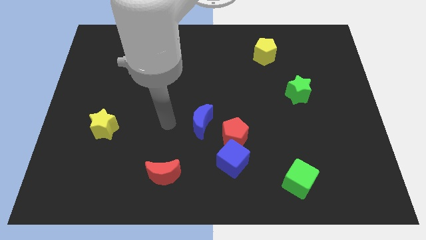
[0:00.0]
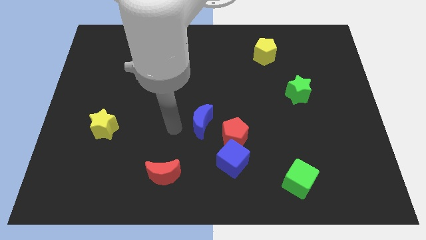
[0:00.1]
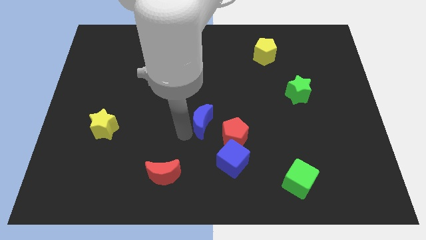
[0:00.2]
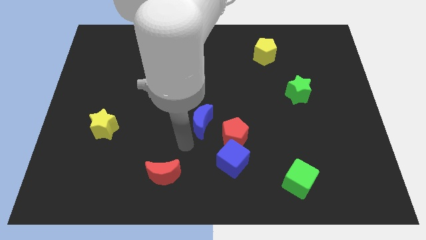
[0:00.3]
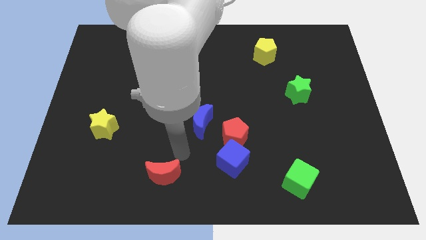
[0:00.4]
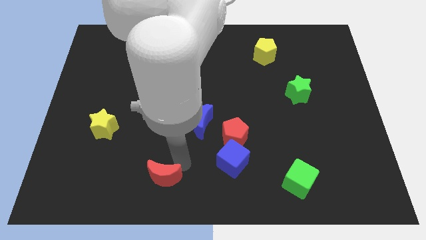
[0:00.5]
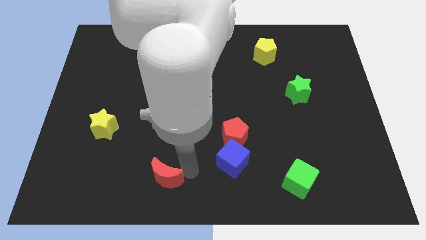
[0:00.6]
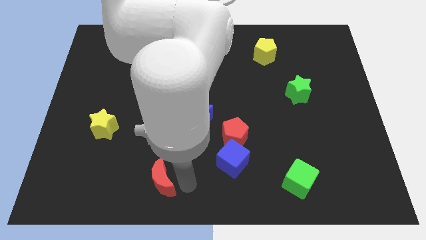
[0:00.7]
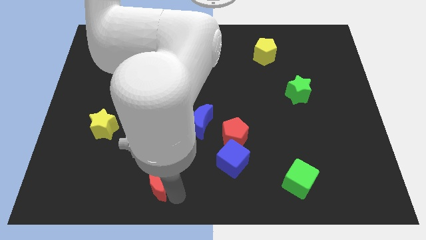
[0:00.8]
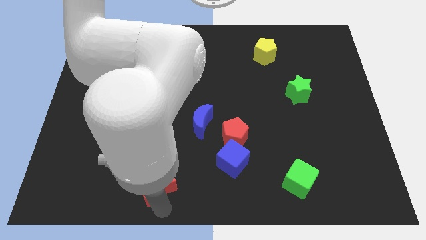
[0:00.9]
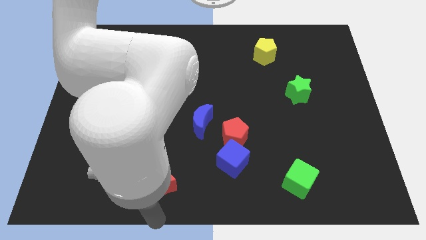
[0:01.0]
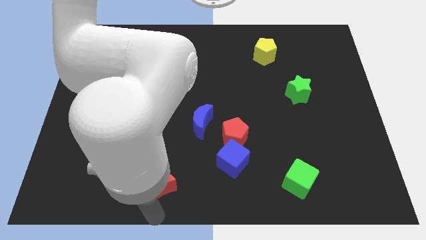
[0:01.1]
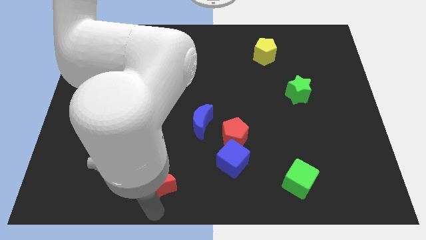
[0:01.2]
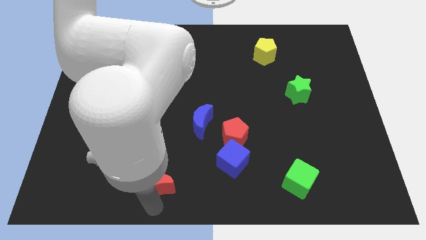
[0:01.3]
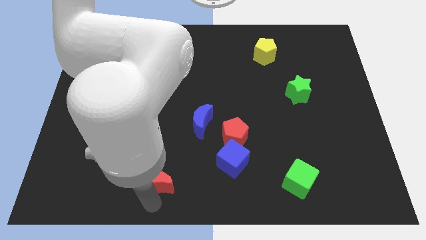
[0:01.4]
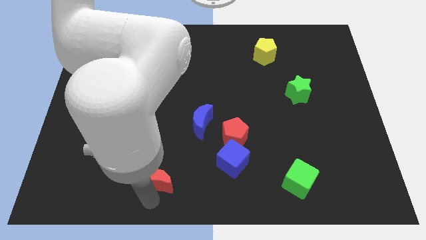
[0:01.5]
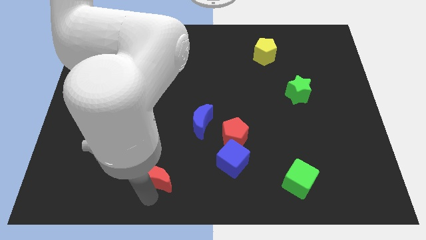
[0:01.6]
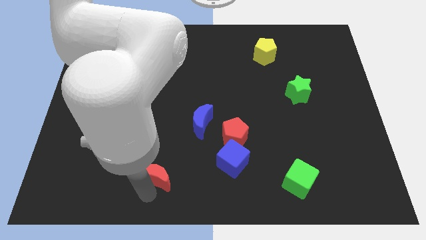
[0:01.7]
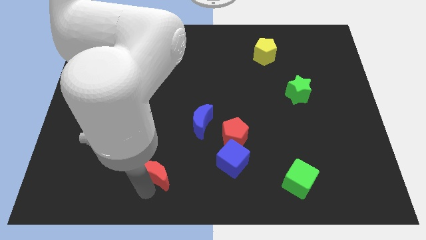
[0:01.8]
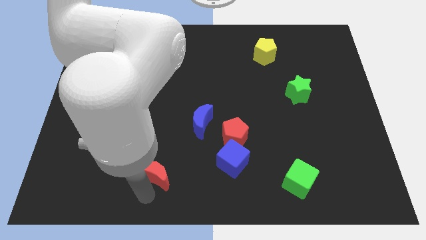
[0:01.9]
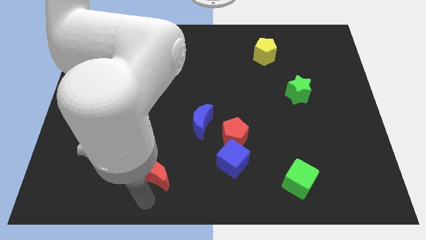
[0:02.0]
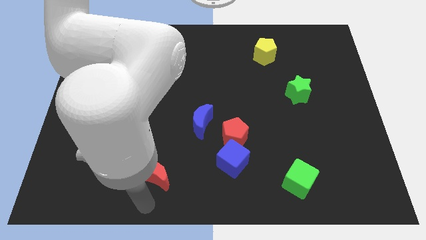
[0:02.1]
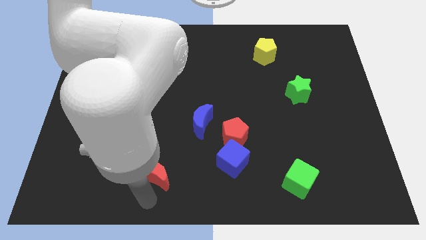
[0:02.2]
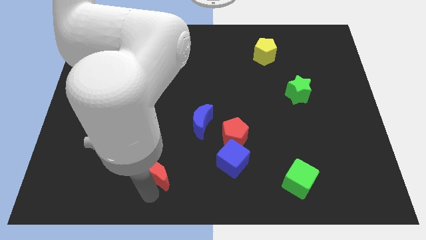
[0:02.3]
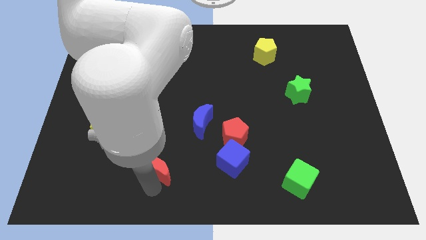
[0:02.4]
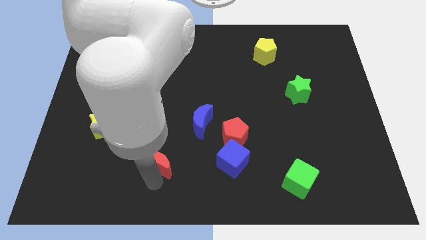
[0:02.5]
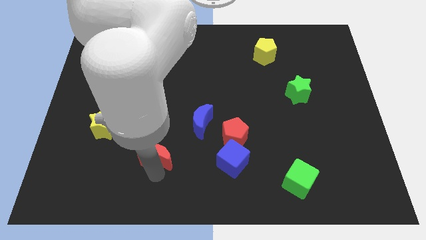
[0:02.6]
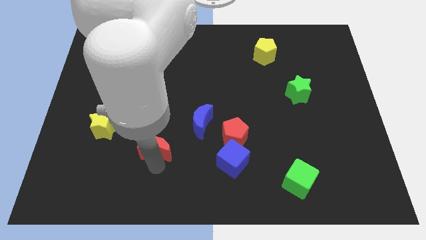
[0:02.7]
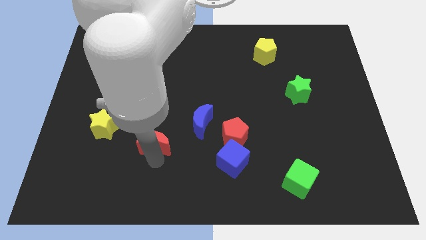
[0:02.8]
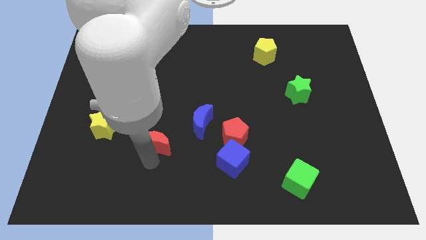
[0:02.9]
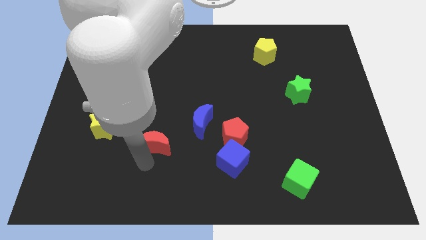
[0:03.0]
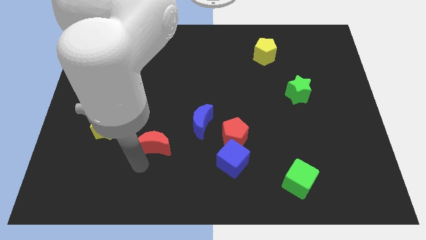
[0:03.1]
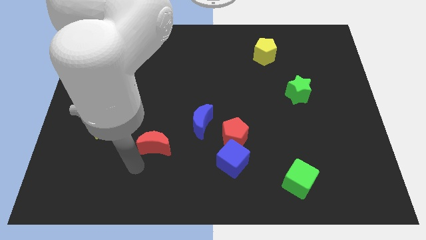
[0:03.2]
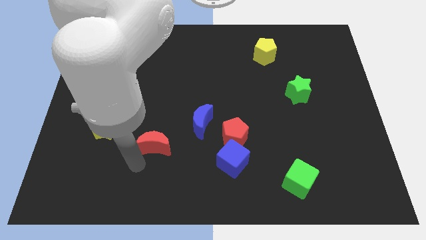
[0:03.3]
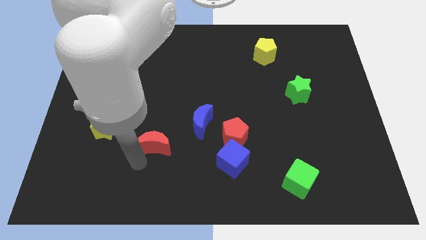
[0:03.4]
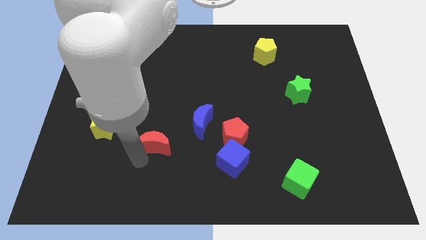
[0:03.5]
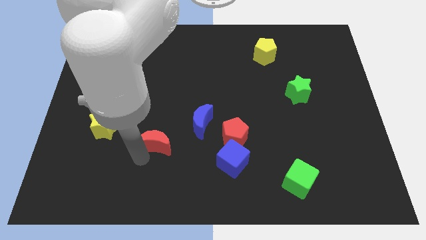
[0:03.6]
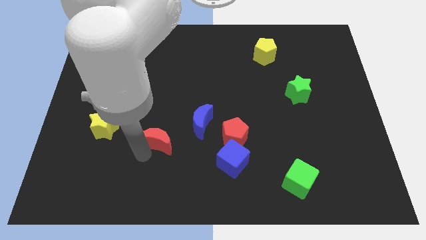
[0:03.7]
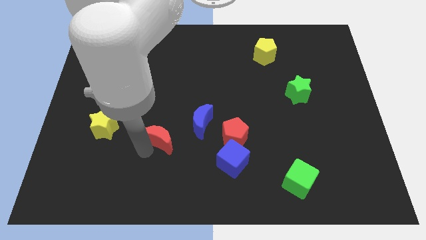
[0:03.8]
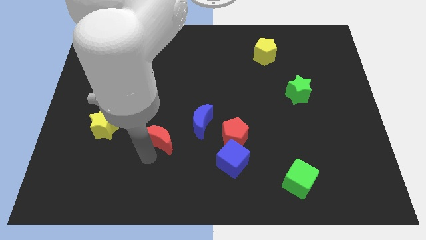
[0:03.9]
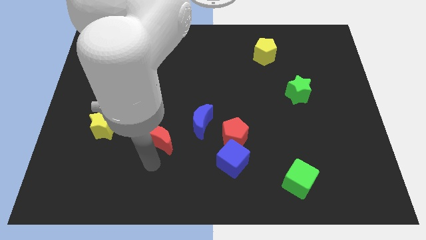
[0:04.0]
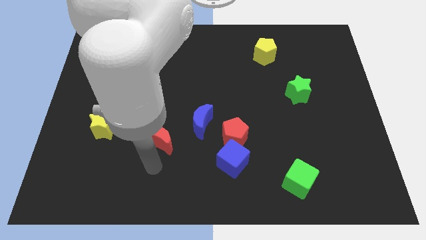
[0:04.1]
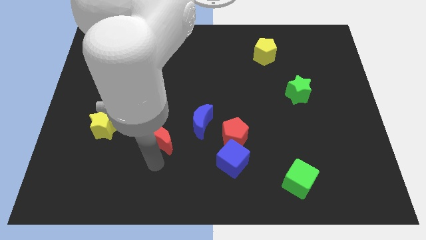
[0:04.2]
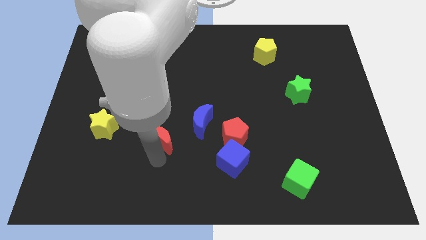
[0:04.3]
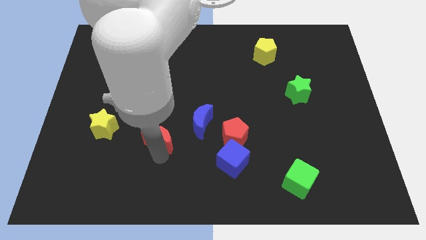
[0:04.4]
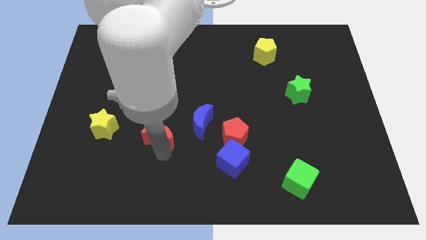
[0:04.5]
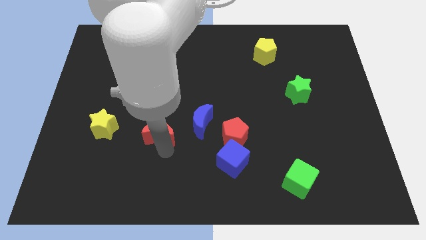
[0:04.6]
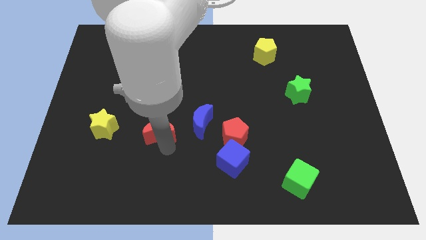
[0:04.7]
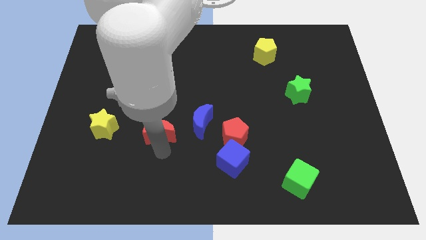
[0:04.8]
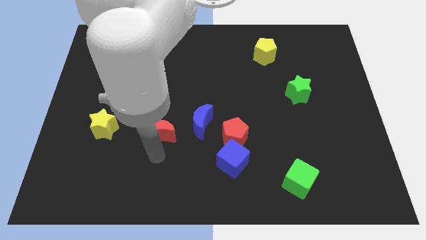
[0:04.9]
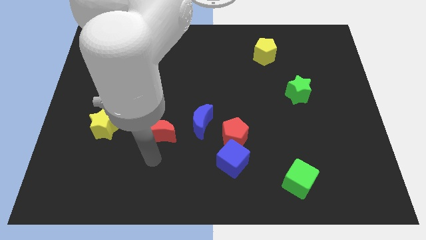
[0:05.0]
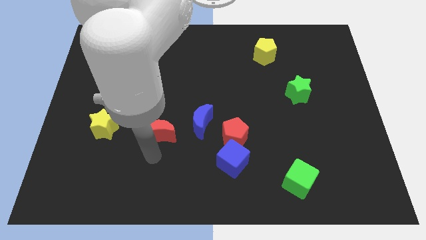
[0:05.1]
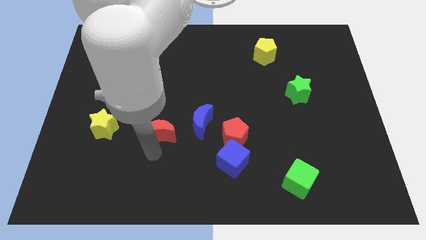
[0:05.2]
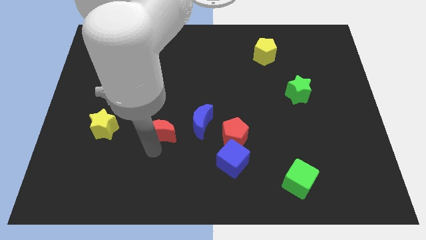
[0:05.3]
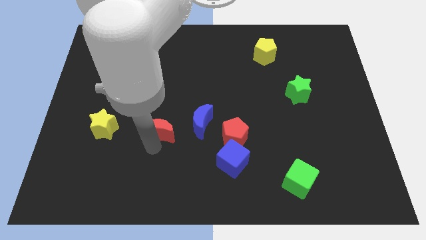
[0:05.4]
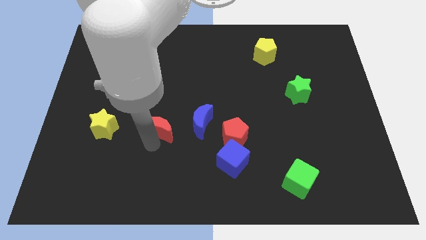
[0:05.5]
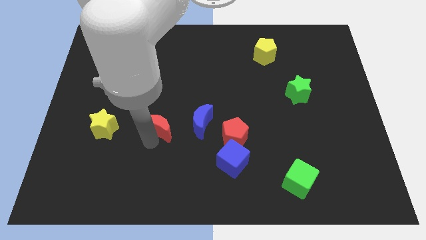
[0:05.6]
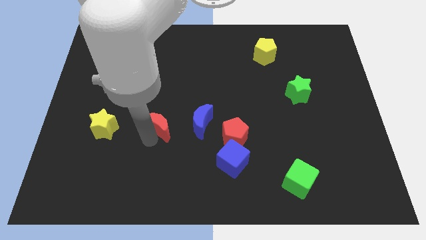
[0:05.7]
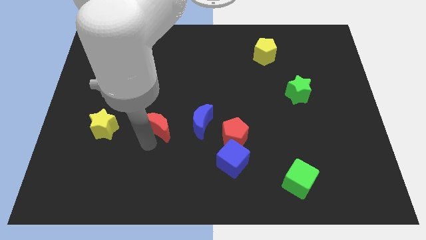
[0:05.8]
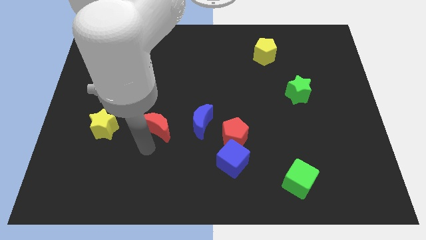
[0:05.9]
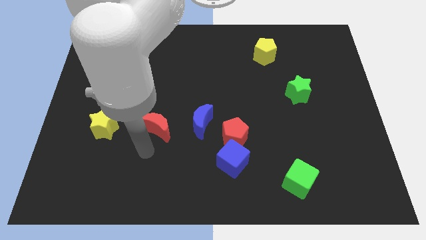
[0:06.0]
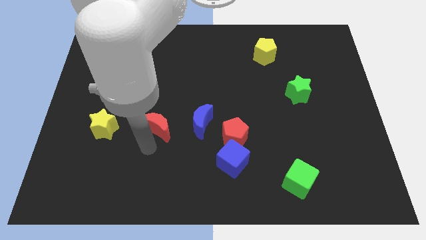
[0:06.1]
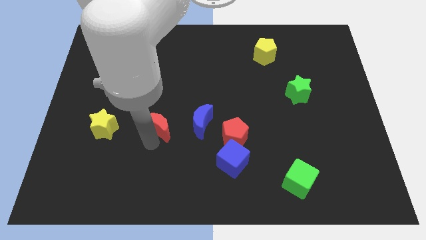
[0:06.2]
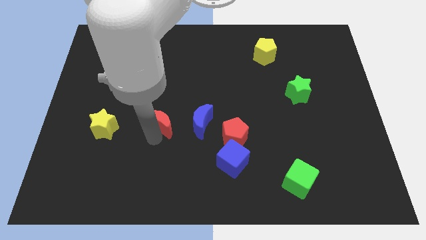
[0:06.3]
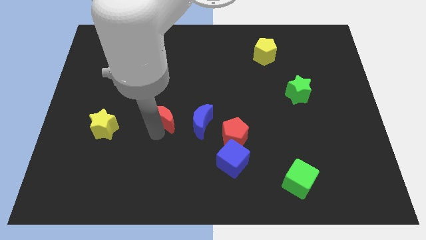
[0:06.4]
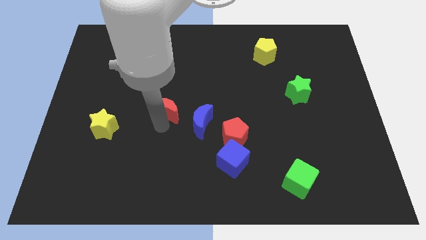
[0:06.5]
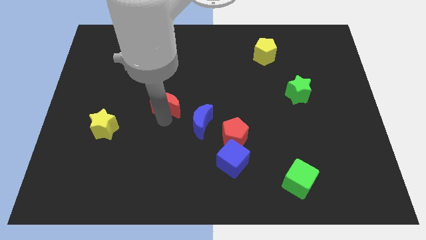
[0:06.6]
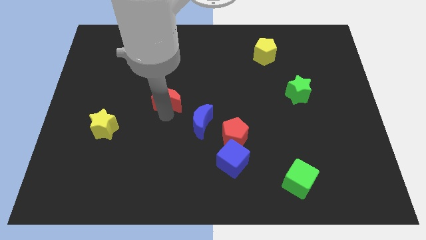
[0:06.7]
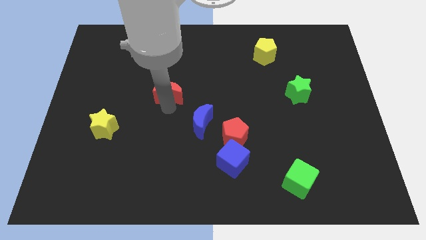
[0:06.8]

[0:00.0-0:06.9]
move the red moon up

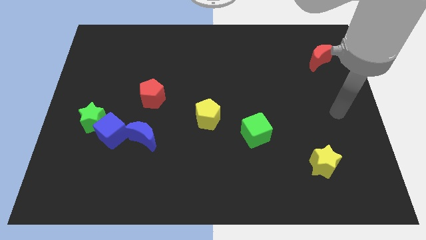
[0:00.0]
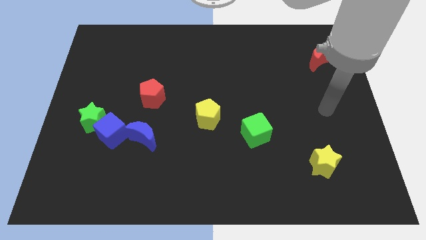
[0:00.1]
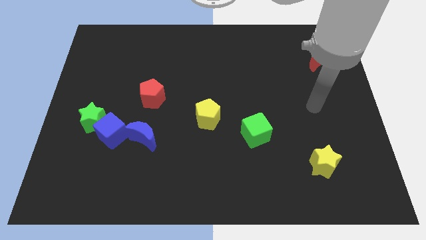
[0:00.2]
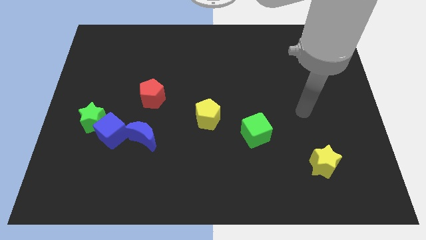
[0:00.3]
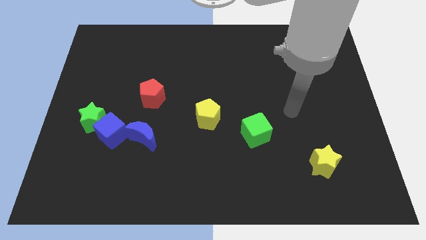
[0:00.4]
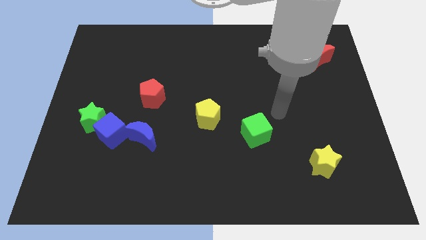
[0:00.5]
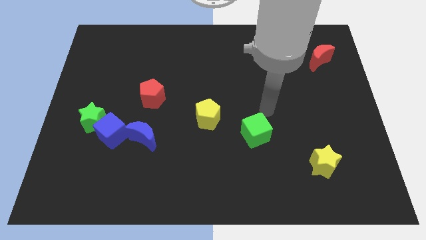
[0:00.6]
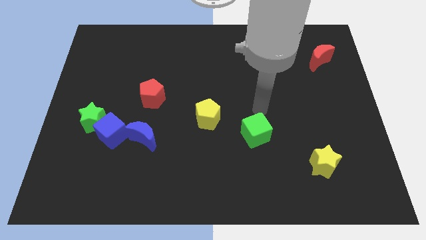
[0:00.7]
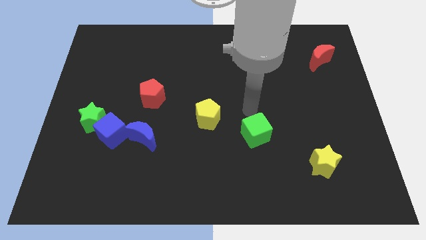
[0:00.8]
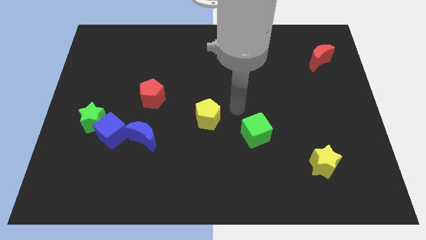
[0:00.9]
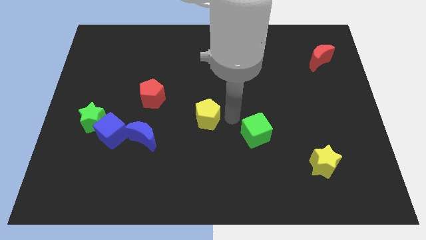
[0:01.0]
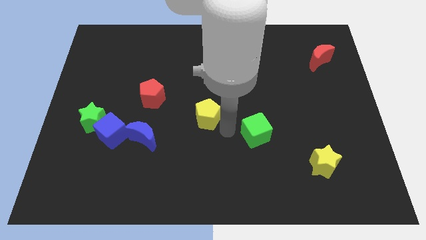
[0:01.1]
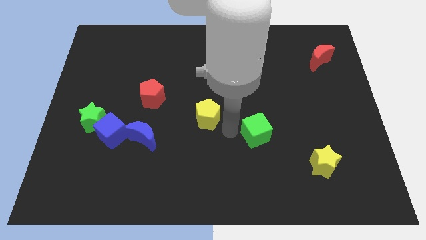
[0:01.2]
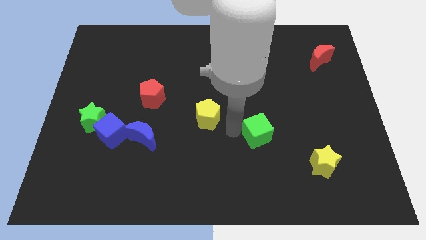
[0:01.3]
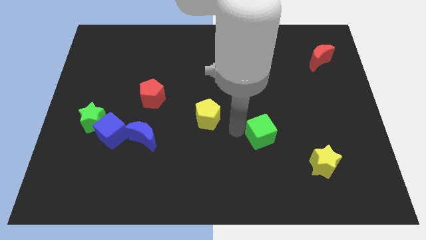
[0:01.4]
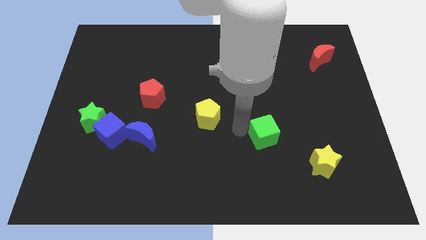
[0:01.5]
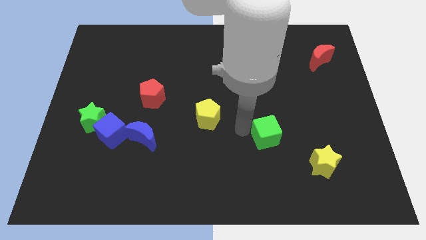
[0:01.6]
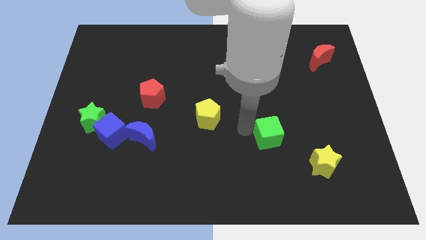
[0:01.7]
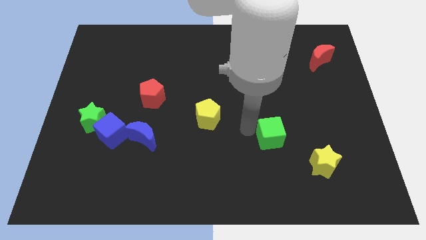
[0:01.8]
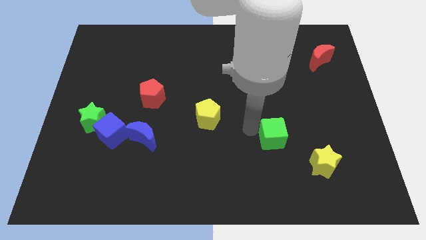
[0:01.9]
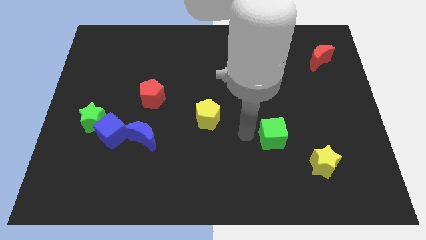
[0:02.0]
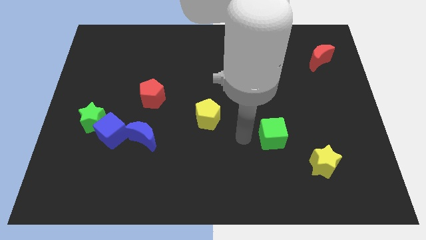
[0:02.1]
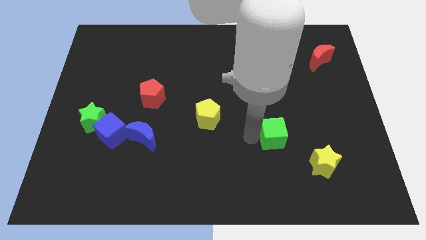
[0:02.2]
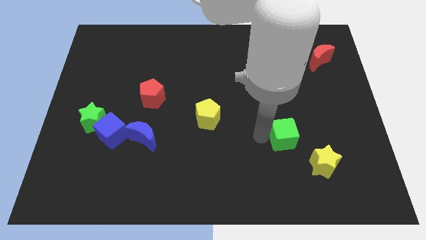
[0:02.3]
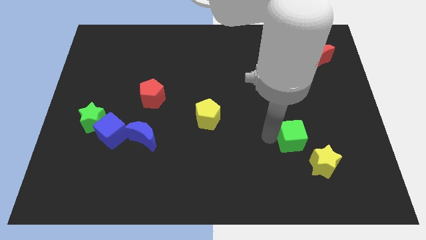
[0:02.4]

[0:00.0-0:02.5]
push the green cube right a little bit
